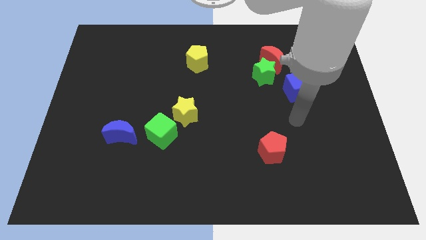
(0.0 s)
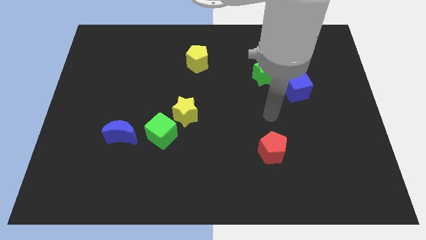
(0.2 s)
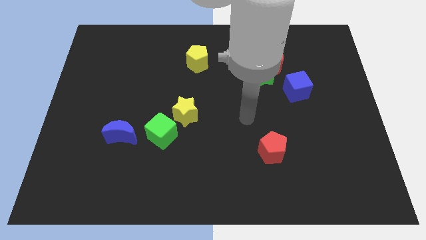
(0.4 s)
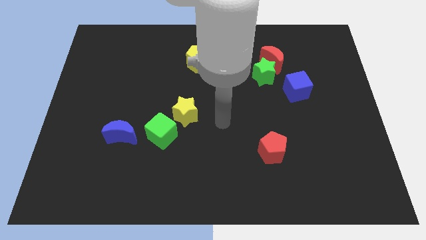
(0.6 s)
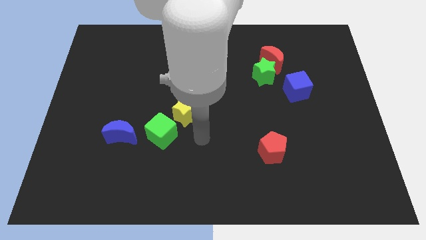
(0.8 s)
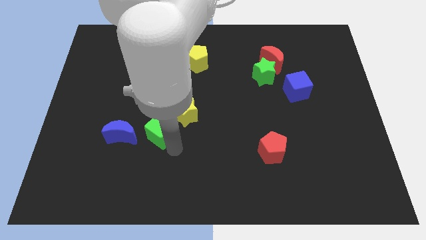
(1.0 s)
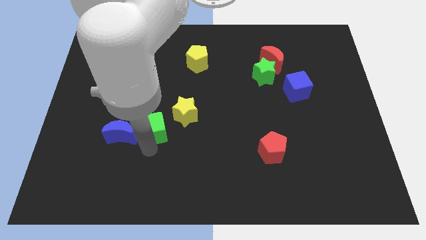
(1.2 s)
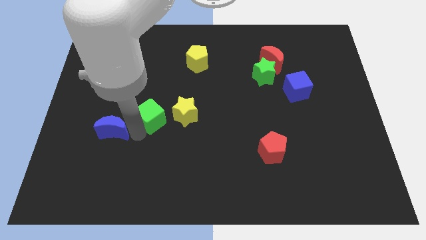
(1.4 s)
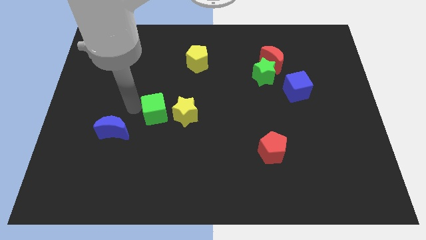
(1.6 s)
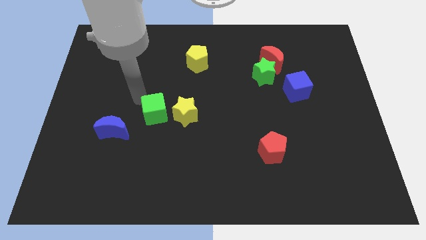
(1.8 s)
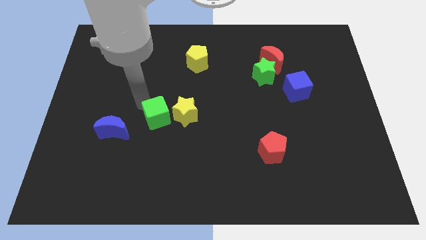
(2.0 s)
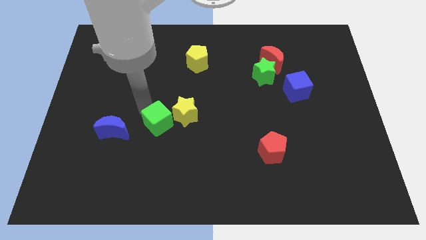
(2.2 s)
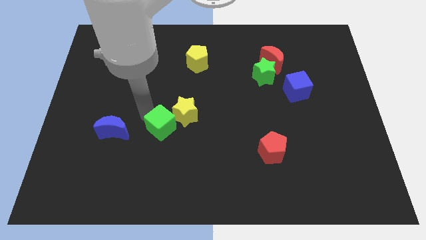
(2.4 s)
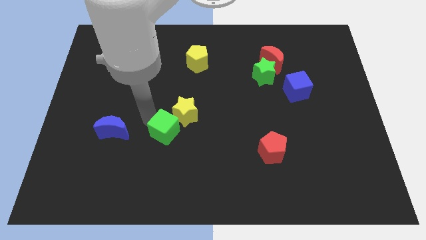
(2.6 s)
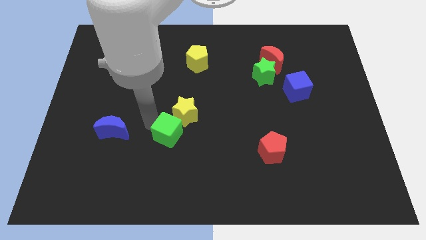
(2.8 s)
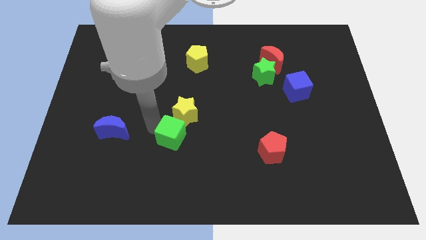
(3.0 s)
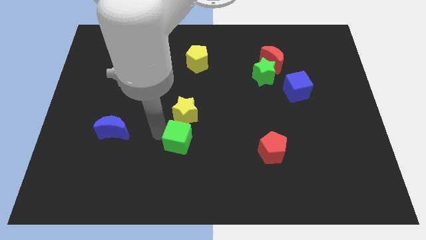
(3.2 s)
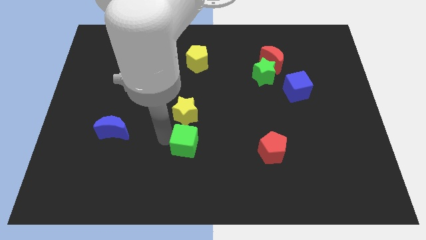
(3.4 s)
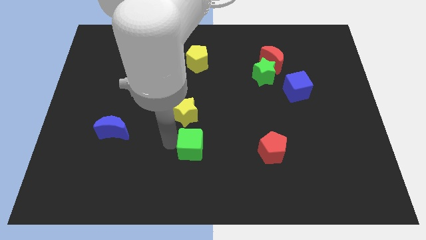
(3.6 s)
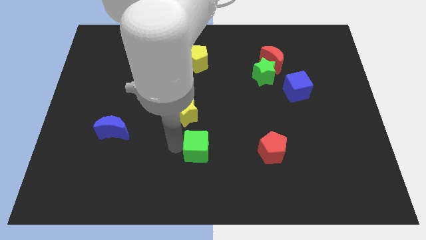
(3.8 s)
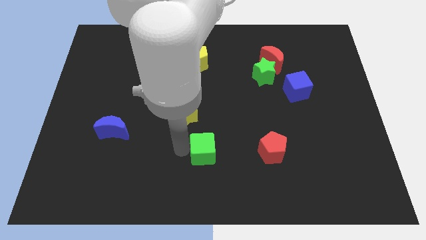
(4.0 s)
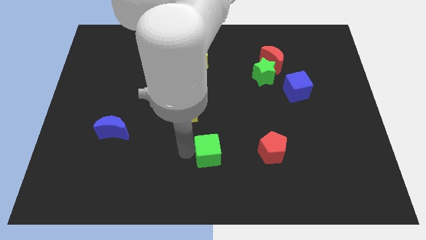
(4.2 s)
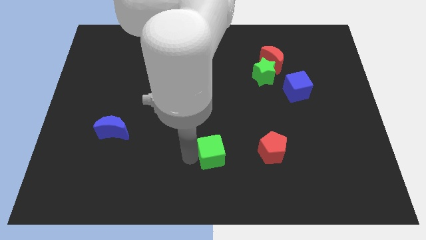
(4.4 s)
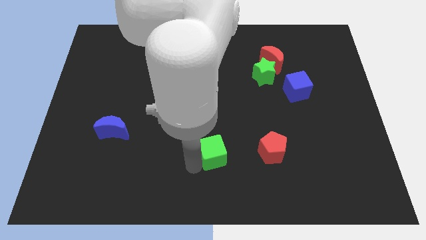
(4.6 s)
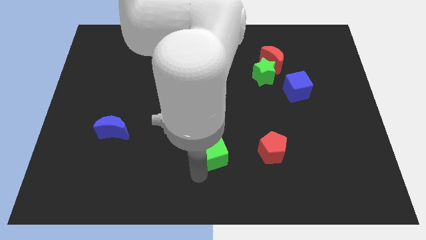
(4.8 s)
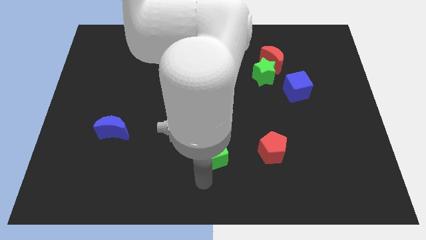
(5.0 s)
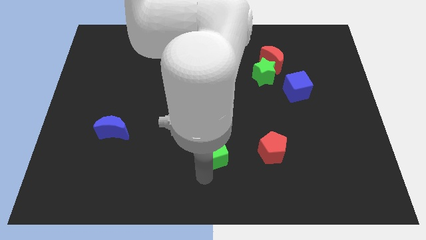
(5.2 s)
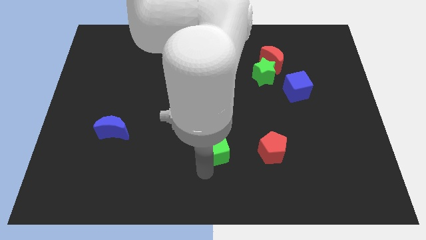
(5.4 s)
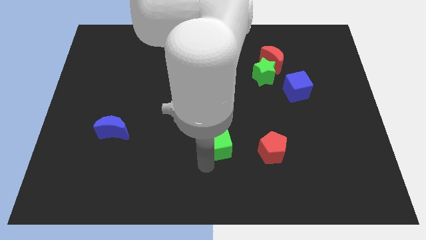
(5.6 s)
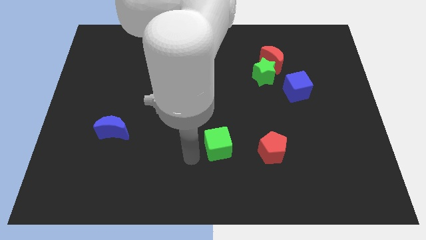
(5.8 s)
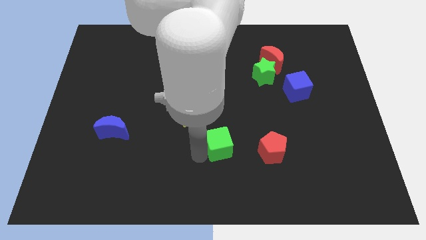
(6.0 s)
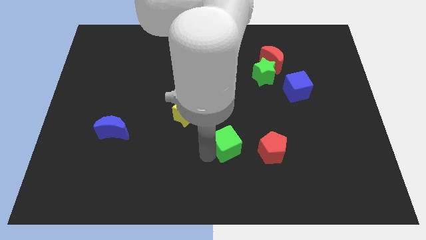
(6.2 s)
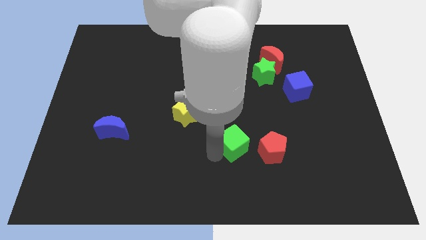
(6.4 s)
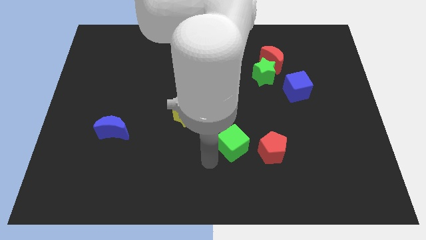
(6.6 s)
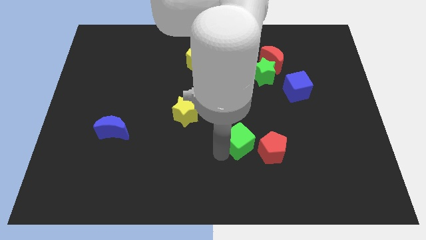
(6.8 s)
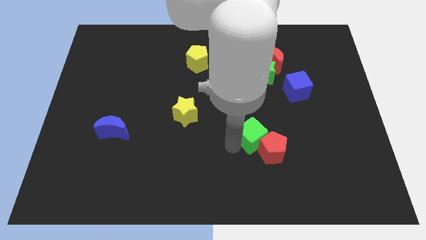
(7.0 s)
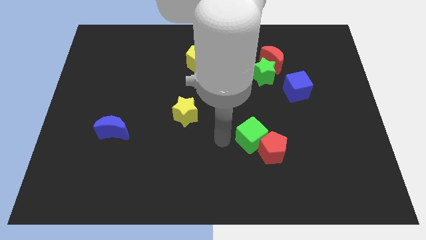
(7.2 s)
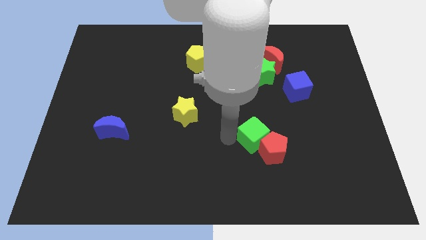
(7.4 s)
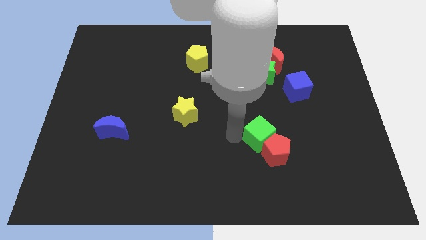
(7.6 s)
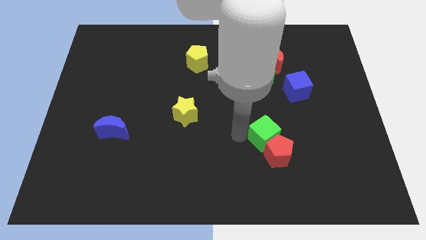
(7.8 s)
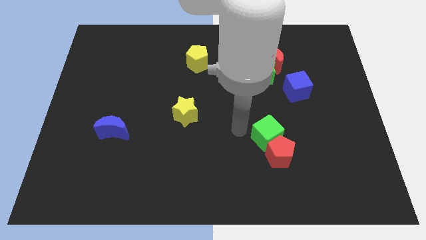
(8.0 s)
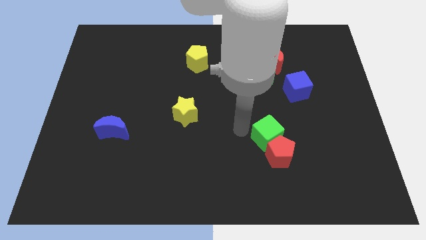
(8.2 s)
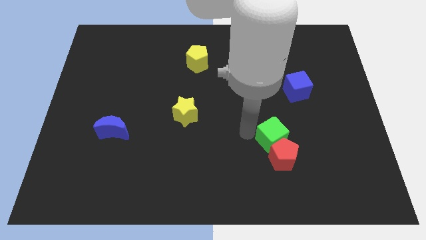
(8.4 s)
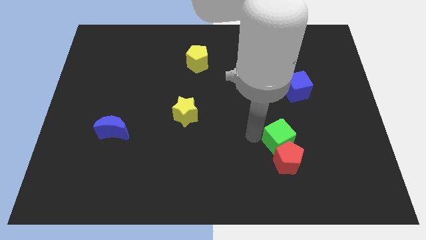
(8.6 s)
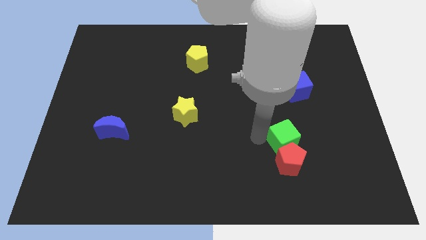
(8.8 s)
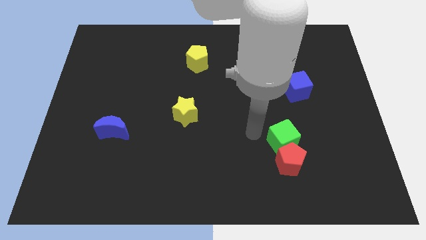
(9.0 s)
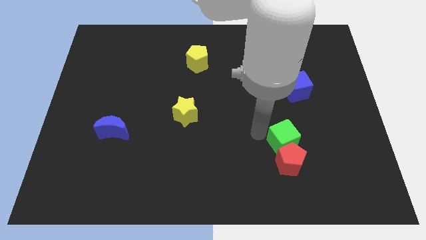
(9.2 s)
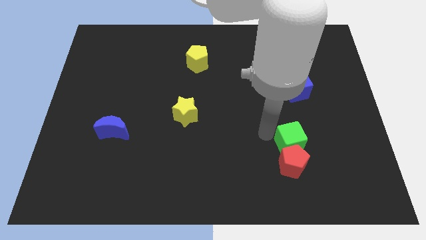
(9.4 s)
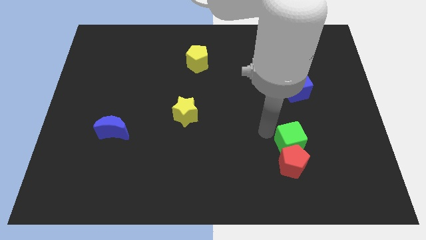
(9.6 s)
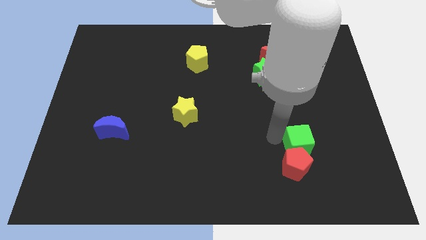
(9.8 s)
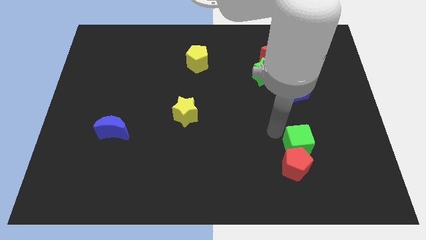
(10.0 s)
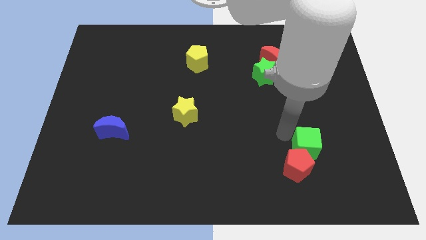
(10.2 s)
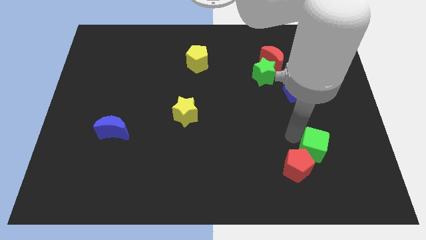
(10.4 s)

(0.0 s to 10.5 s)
move the green cube to the right side of the red pentagon

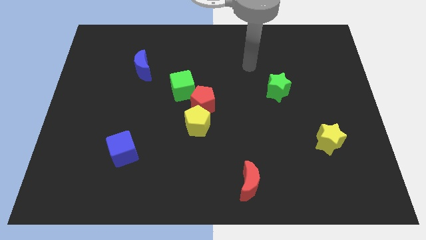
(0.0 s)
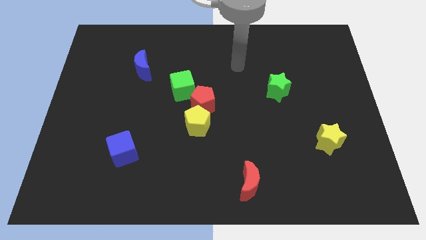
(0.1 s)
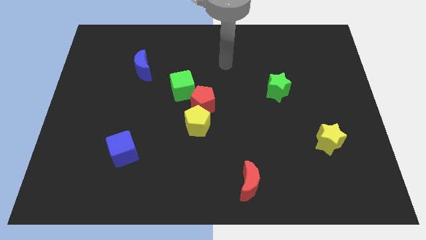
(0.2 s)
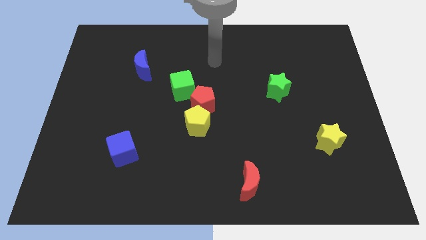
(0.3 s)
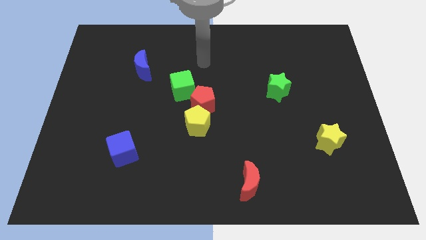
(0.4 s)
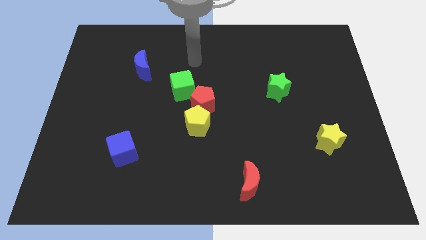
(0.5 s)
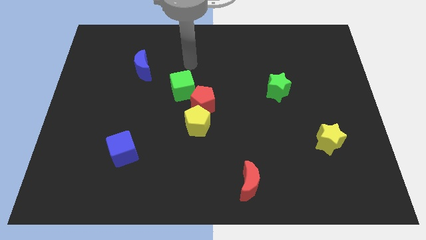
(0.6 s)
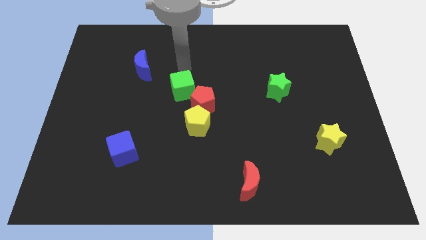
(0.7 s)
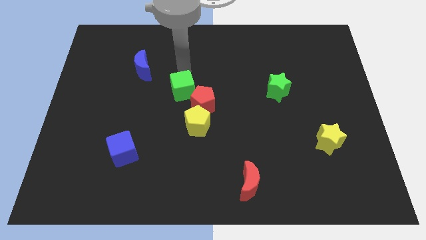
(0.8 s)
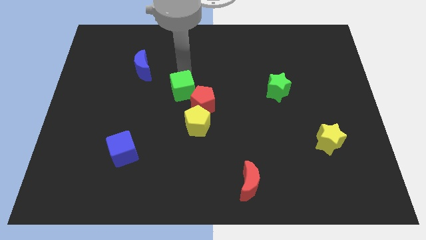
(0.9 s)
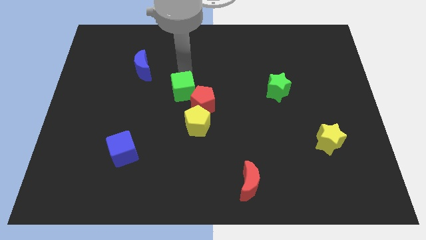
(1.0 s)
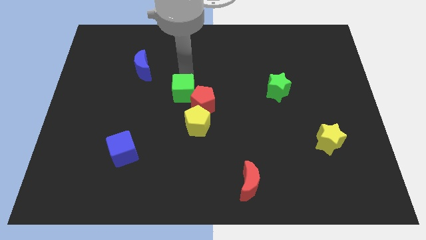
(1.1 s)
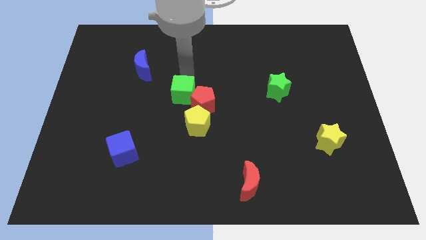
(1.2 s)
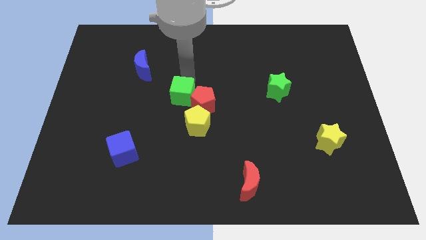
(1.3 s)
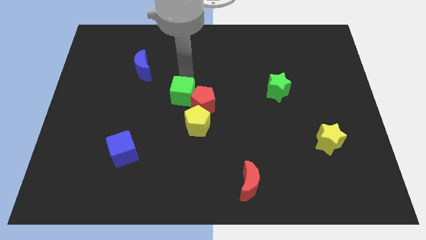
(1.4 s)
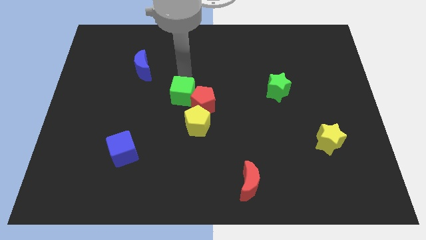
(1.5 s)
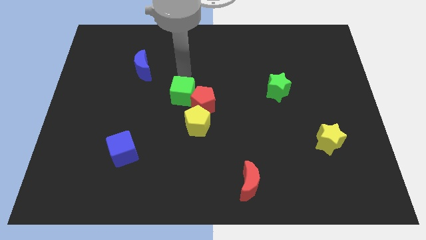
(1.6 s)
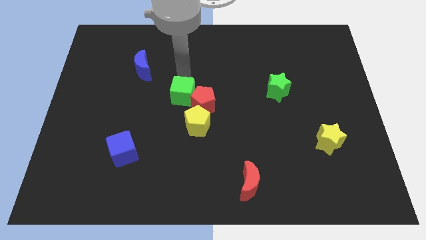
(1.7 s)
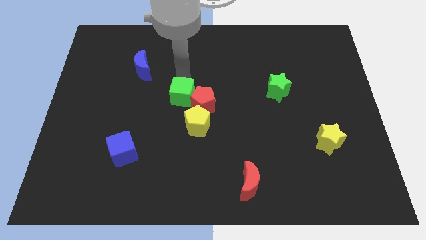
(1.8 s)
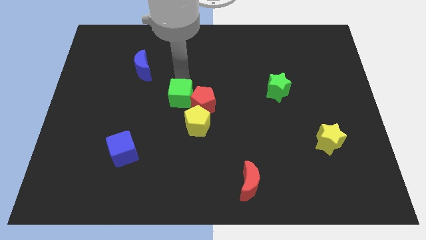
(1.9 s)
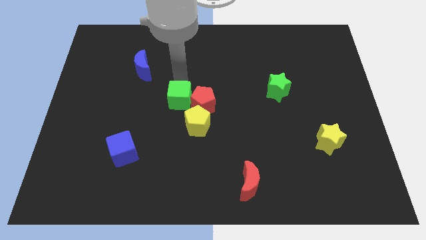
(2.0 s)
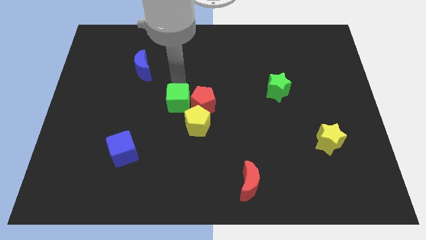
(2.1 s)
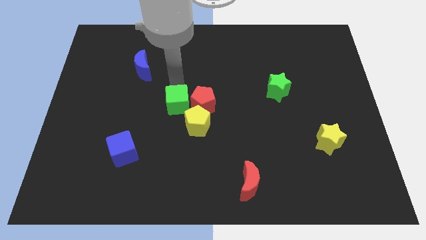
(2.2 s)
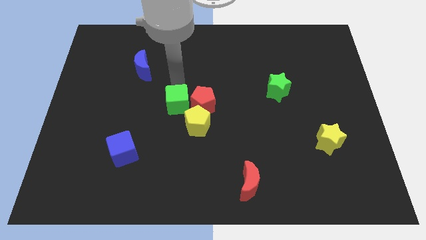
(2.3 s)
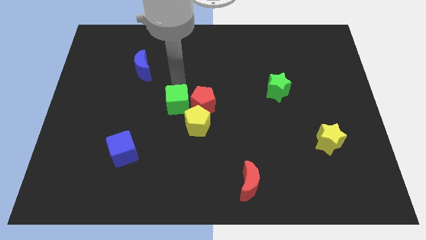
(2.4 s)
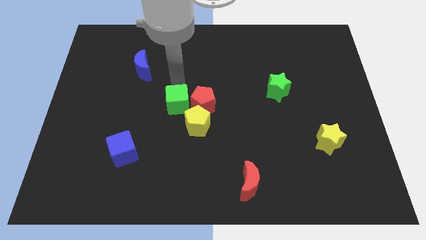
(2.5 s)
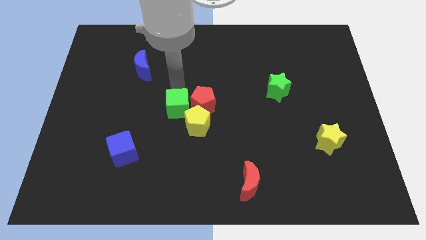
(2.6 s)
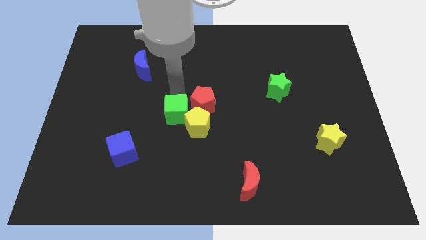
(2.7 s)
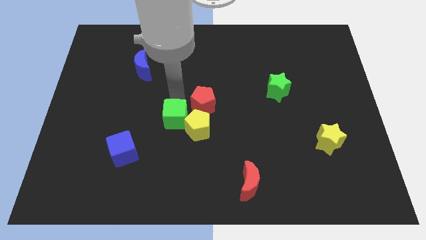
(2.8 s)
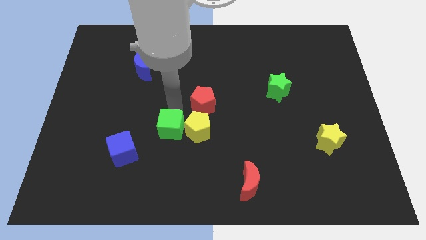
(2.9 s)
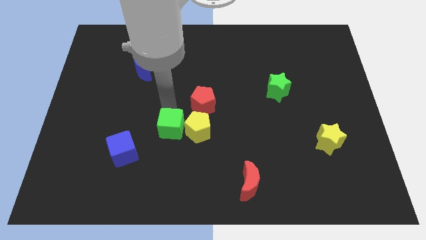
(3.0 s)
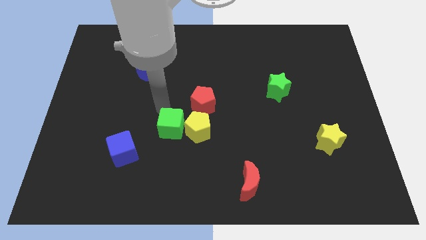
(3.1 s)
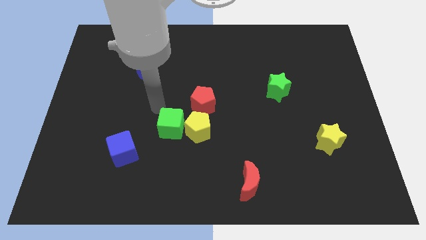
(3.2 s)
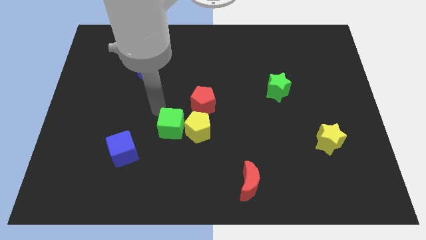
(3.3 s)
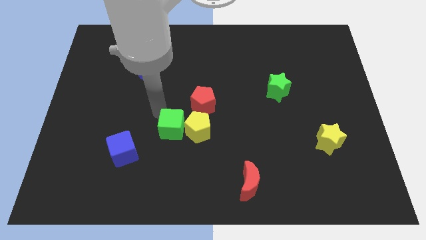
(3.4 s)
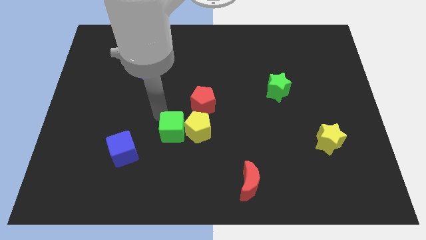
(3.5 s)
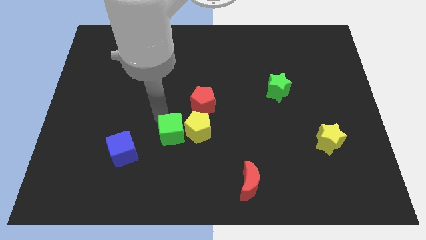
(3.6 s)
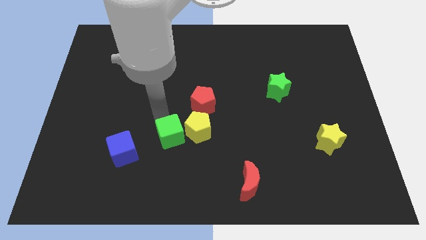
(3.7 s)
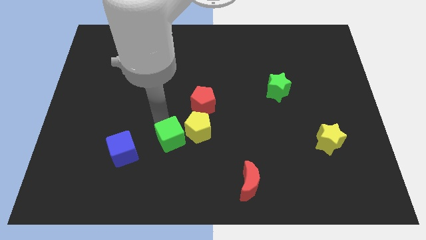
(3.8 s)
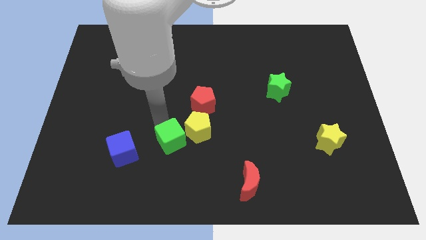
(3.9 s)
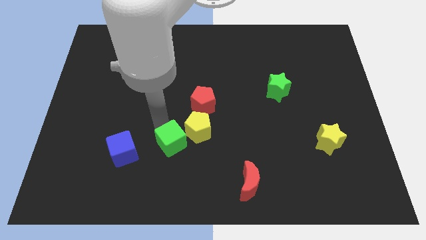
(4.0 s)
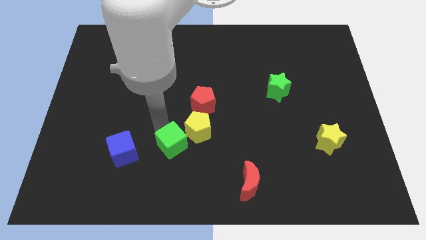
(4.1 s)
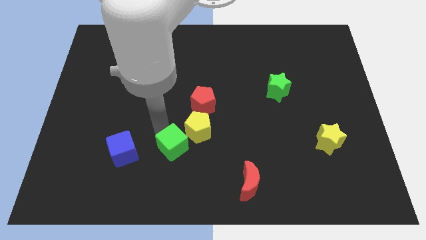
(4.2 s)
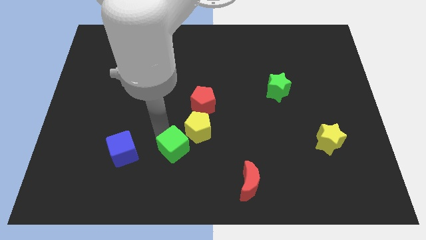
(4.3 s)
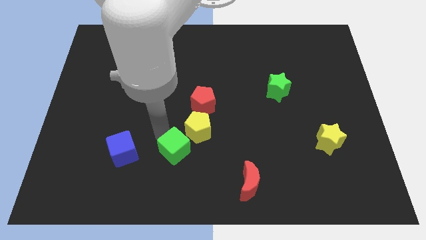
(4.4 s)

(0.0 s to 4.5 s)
push the green cube to the bottom side of the yellow pentagon
